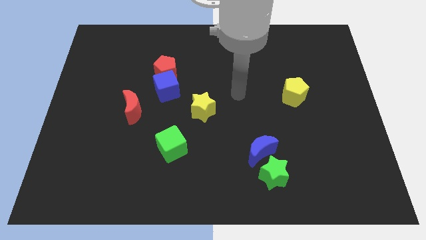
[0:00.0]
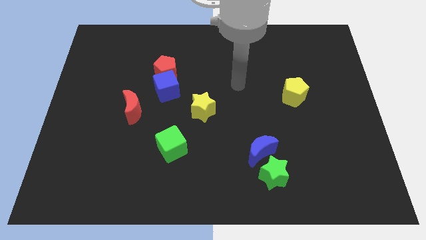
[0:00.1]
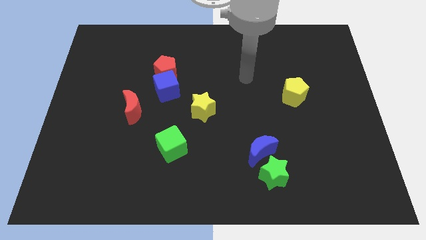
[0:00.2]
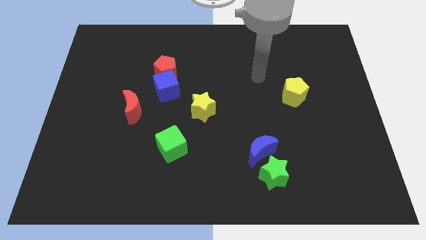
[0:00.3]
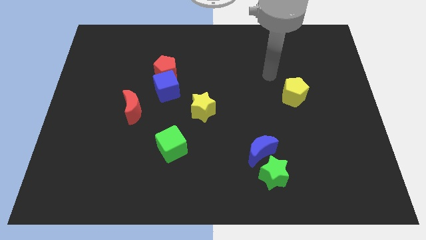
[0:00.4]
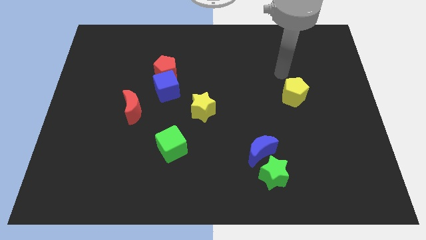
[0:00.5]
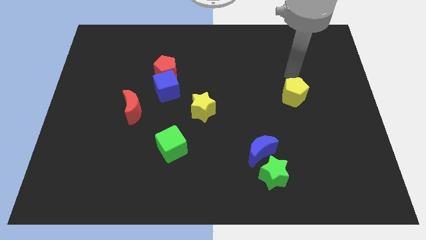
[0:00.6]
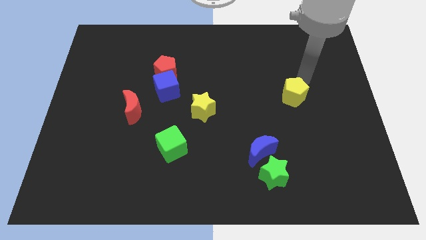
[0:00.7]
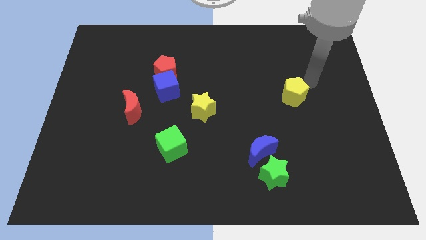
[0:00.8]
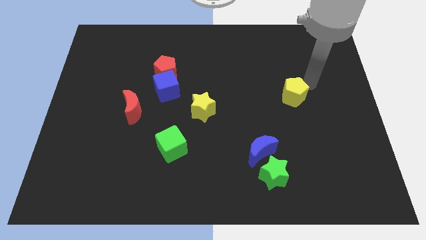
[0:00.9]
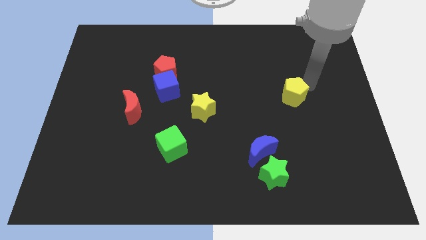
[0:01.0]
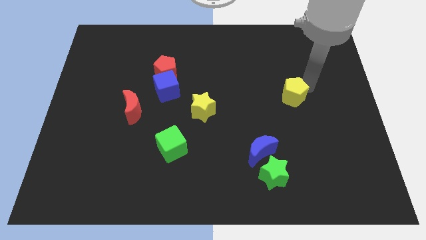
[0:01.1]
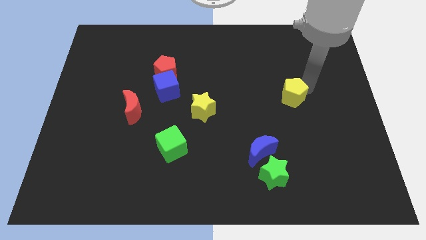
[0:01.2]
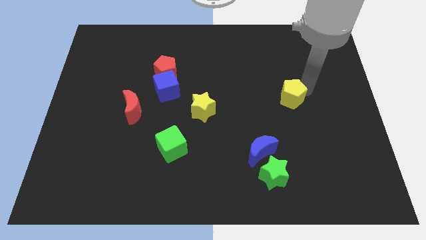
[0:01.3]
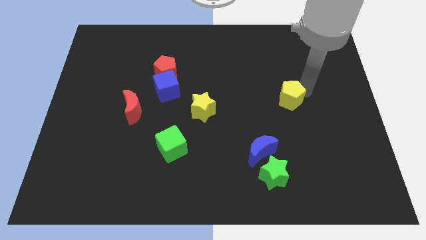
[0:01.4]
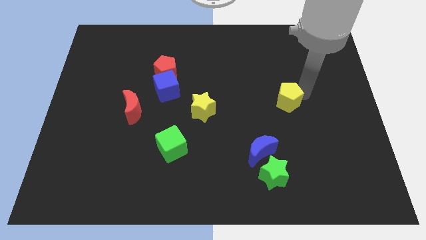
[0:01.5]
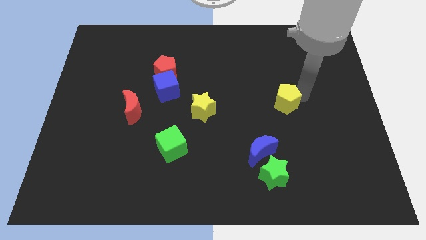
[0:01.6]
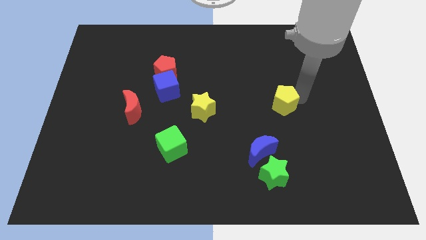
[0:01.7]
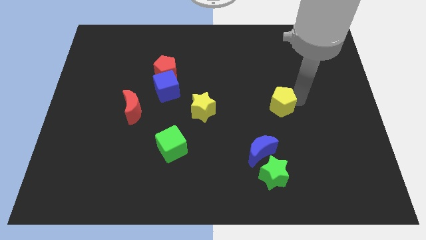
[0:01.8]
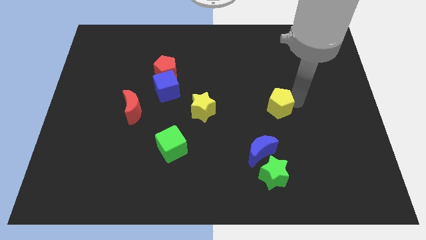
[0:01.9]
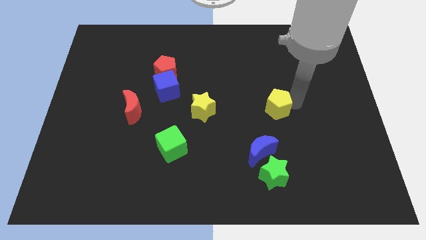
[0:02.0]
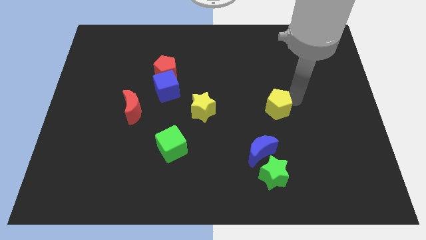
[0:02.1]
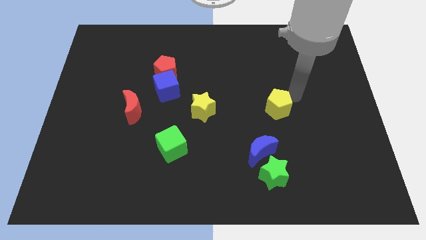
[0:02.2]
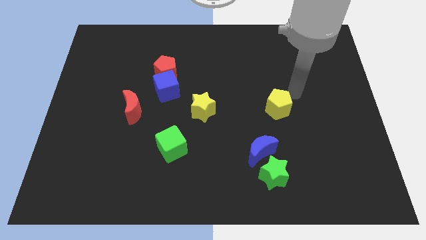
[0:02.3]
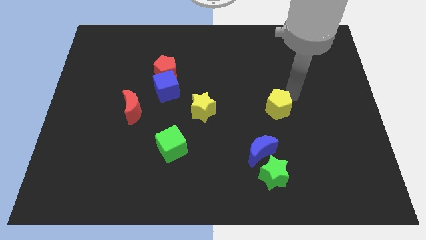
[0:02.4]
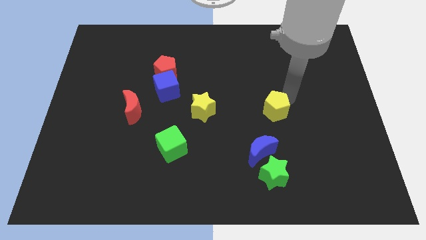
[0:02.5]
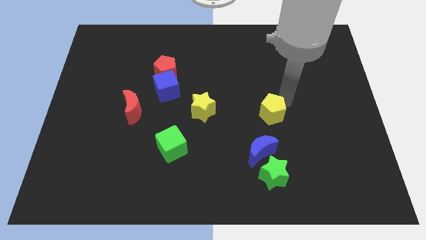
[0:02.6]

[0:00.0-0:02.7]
move the yellow pentagon a bit downwards and then left

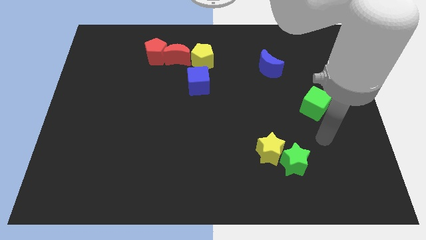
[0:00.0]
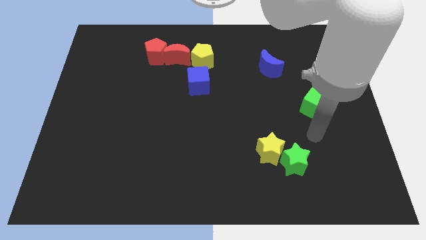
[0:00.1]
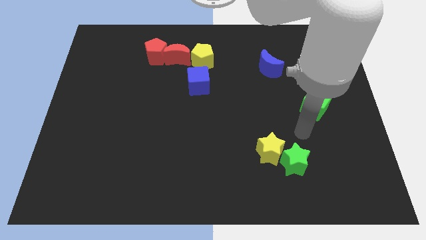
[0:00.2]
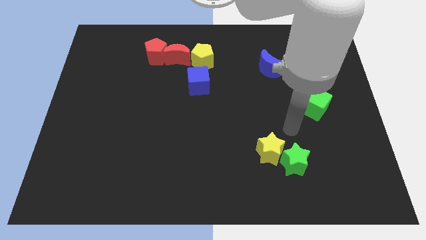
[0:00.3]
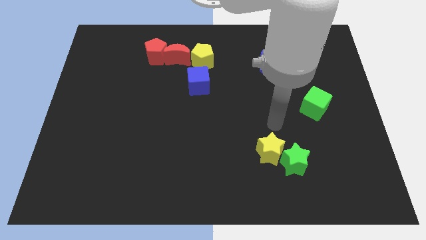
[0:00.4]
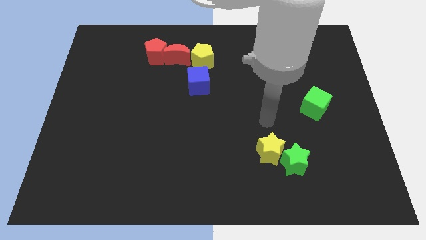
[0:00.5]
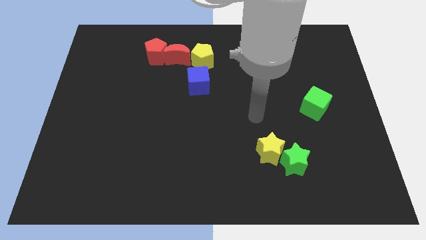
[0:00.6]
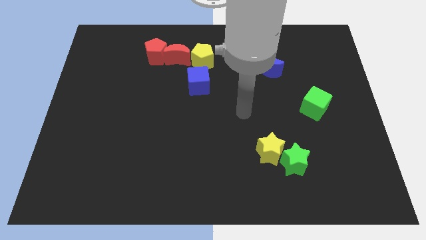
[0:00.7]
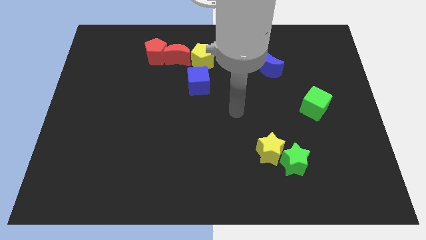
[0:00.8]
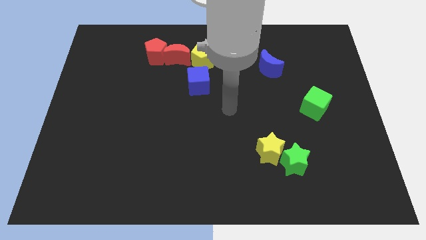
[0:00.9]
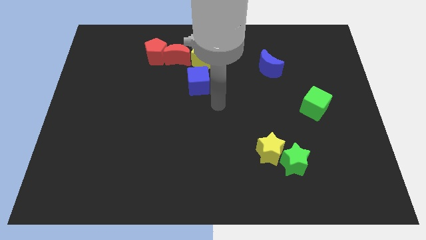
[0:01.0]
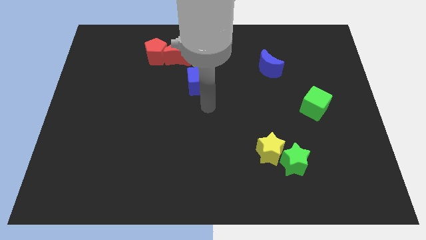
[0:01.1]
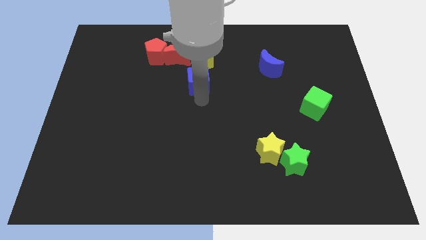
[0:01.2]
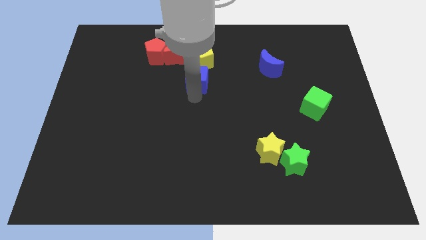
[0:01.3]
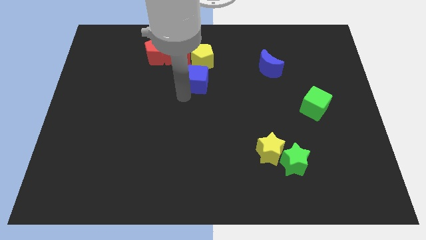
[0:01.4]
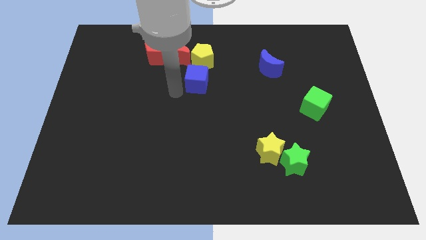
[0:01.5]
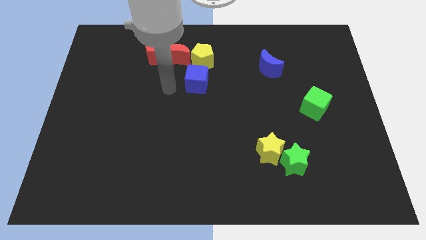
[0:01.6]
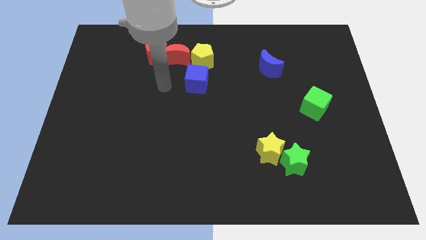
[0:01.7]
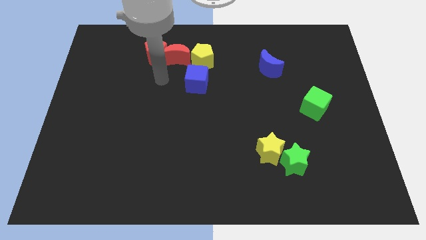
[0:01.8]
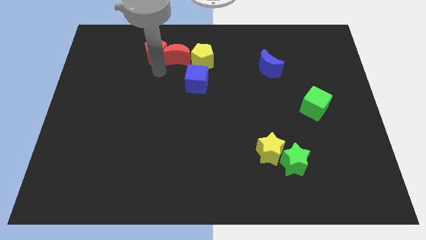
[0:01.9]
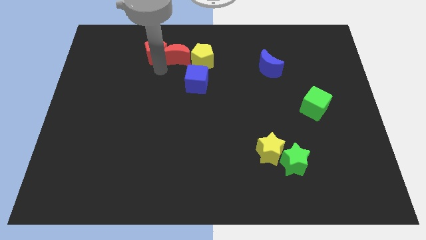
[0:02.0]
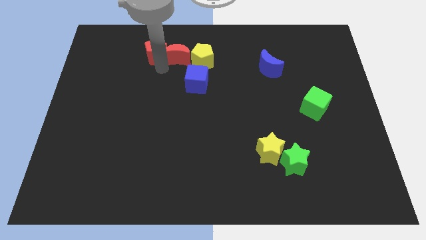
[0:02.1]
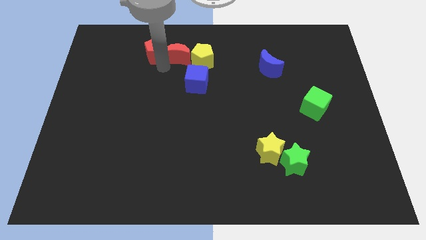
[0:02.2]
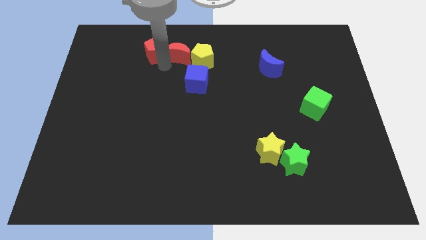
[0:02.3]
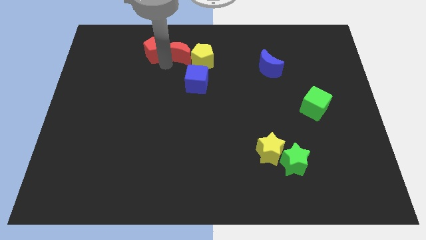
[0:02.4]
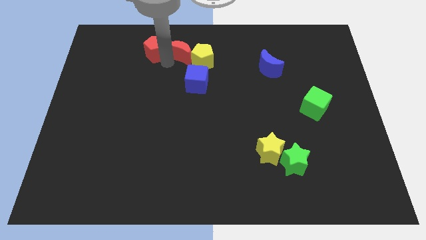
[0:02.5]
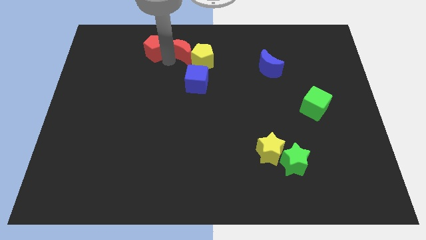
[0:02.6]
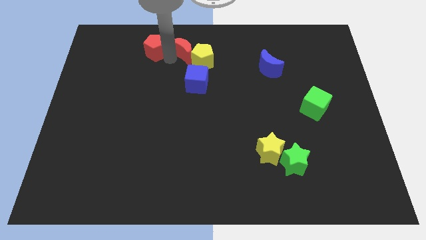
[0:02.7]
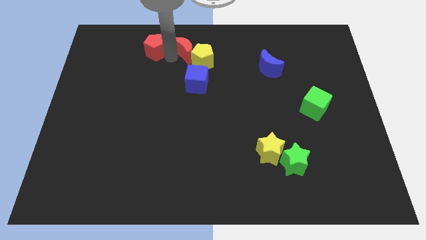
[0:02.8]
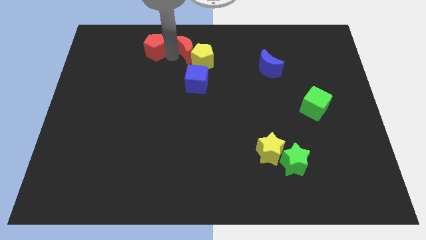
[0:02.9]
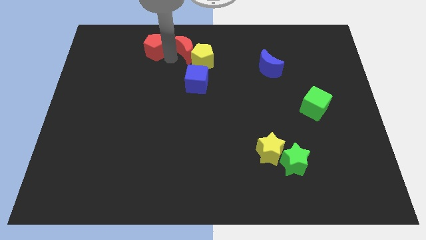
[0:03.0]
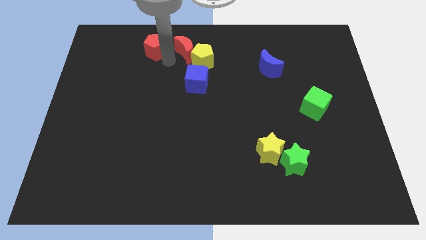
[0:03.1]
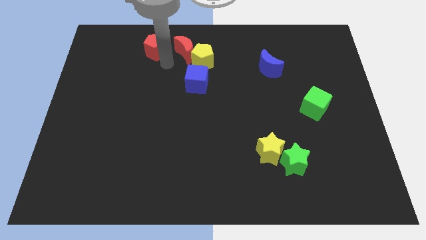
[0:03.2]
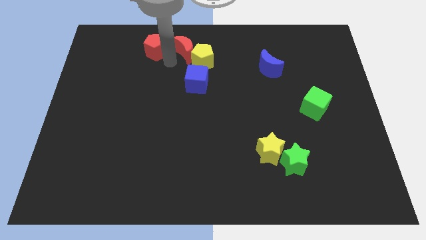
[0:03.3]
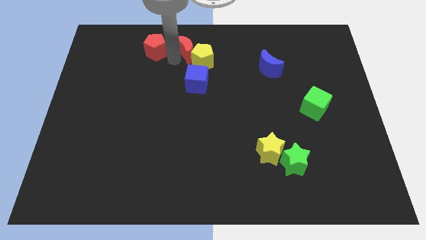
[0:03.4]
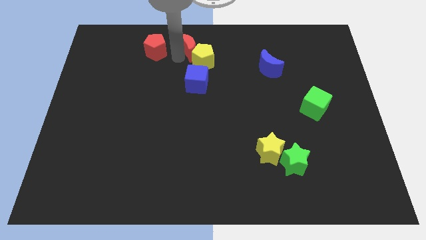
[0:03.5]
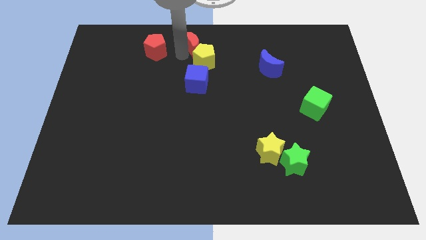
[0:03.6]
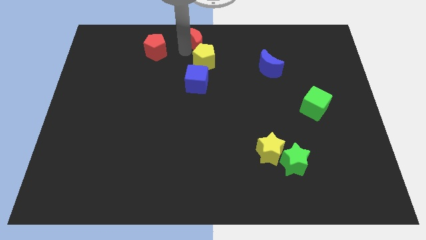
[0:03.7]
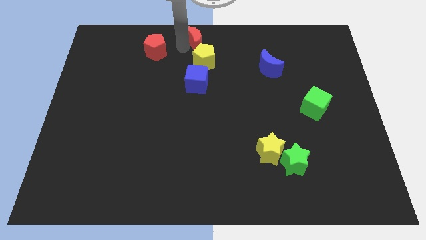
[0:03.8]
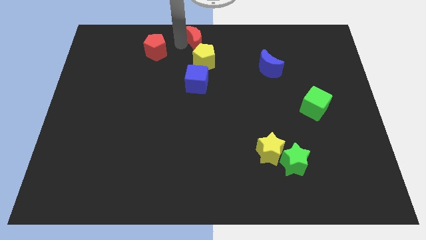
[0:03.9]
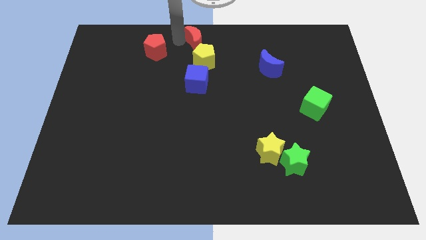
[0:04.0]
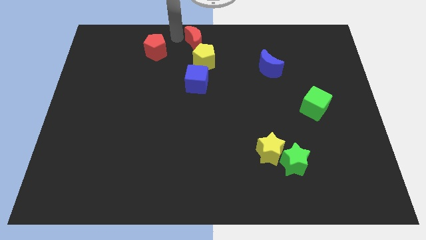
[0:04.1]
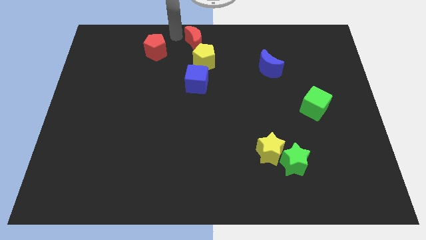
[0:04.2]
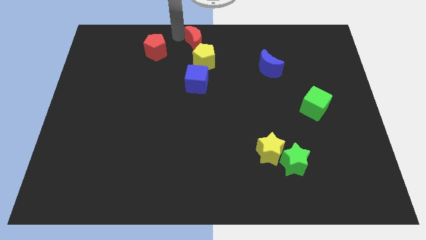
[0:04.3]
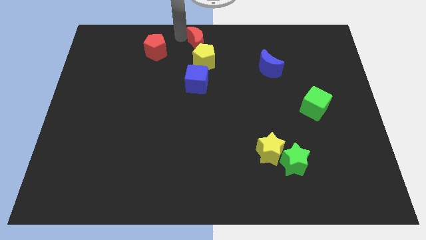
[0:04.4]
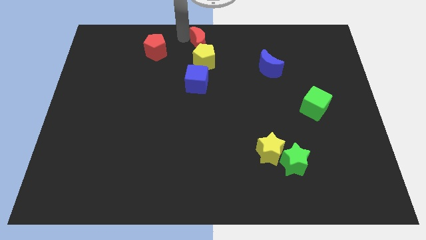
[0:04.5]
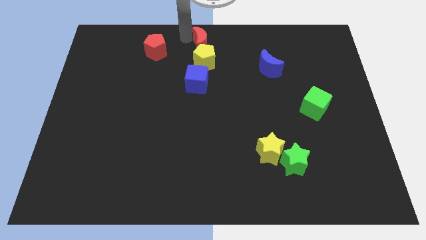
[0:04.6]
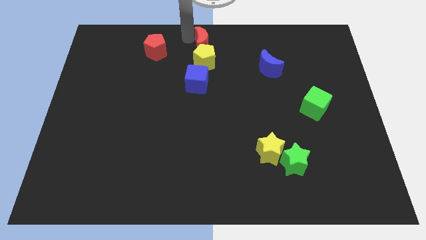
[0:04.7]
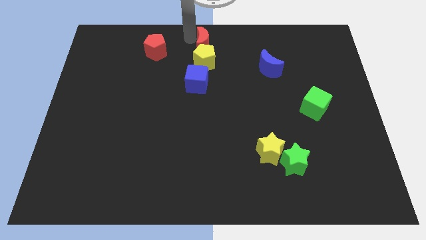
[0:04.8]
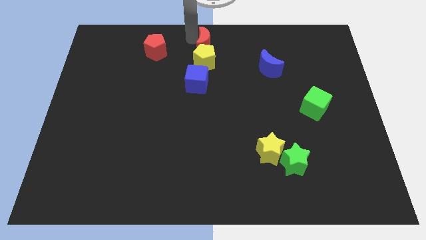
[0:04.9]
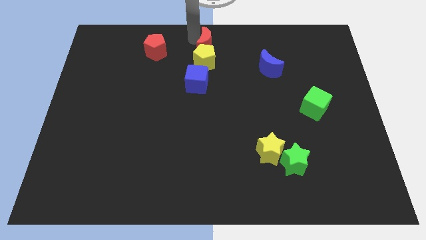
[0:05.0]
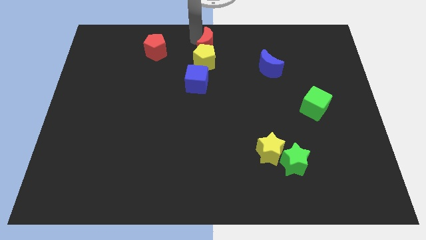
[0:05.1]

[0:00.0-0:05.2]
push the red moon to the right a bit

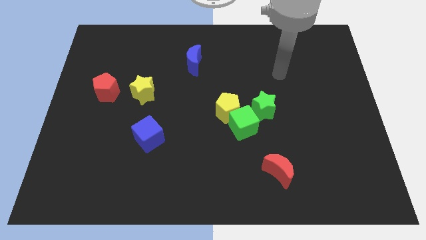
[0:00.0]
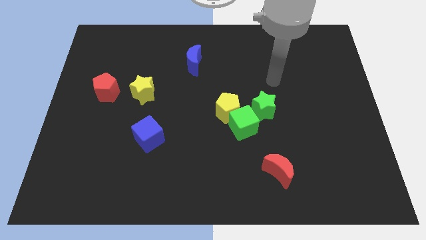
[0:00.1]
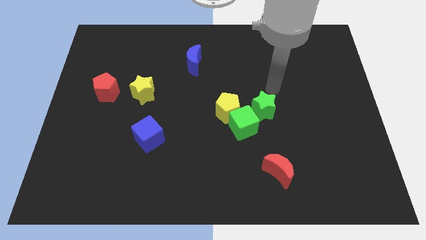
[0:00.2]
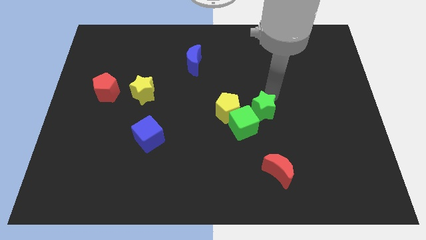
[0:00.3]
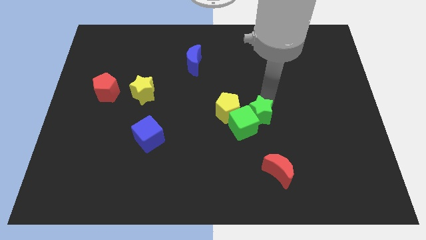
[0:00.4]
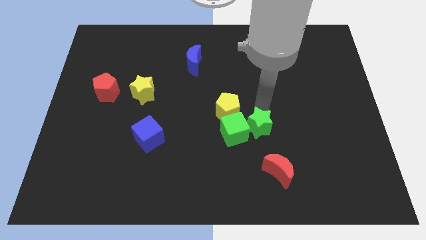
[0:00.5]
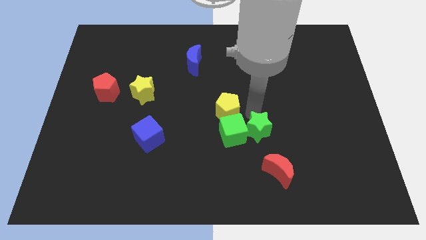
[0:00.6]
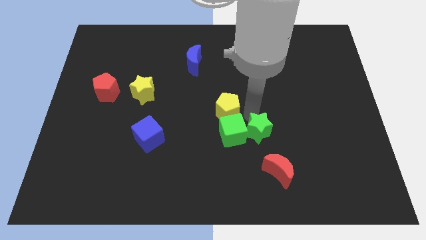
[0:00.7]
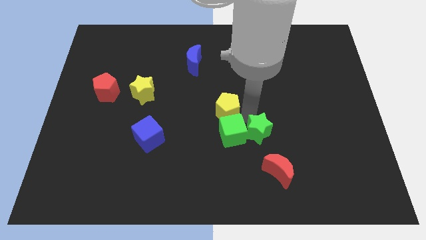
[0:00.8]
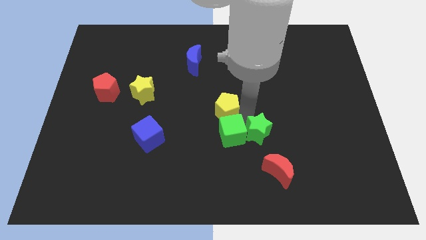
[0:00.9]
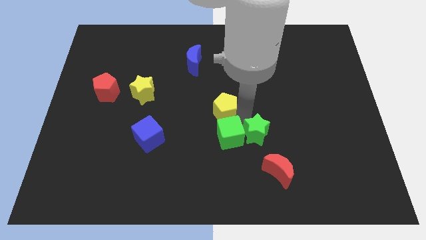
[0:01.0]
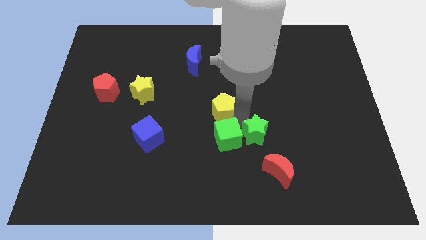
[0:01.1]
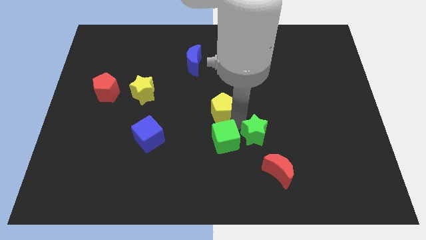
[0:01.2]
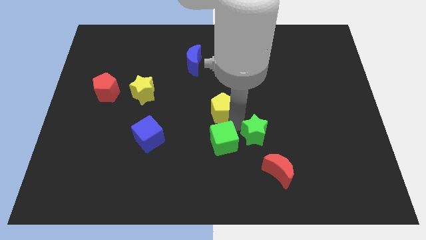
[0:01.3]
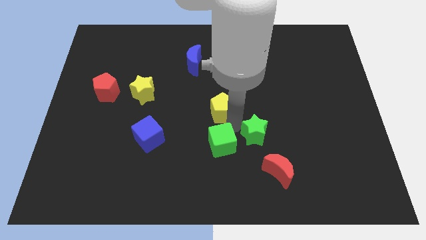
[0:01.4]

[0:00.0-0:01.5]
move the green cube a bit diagonally down and to the left
